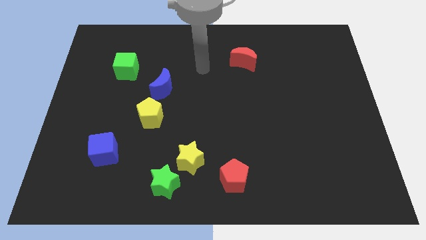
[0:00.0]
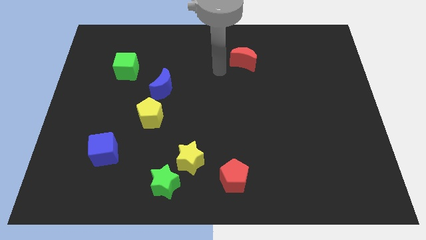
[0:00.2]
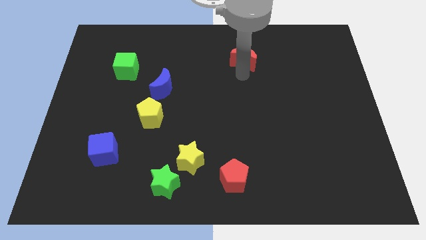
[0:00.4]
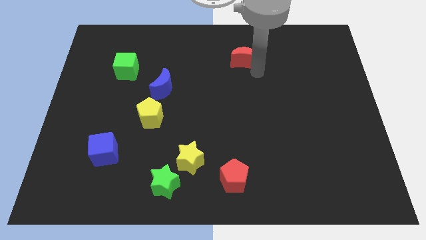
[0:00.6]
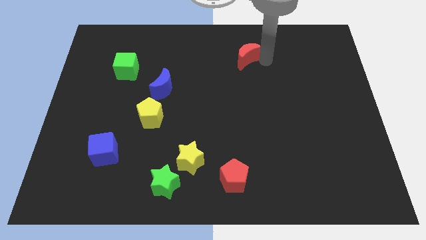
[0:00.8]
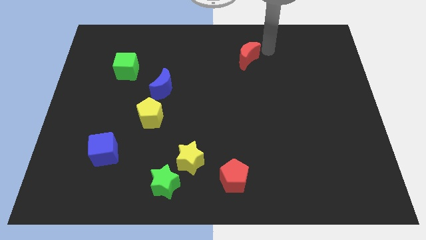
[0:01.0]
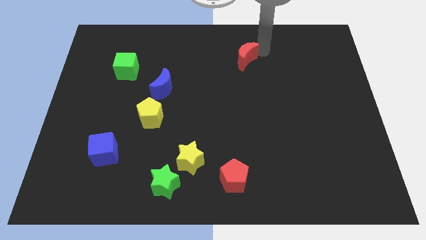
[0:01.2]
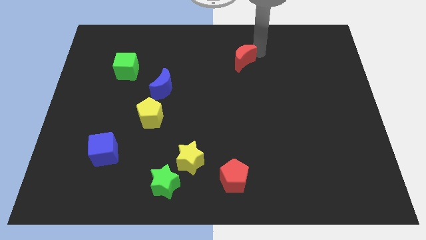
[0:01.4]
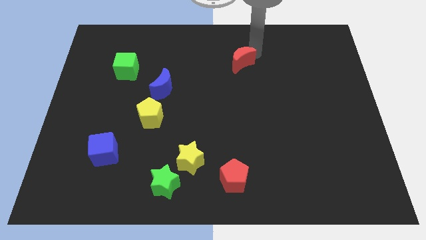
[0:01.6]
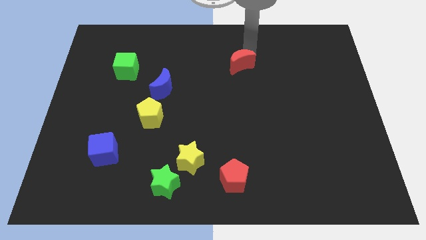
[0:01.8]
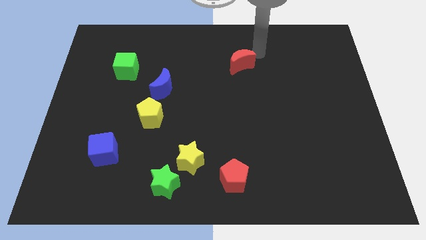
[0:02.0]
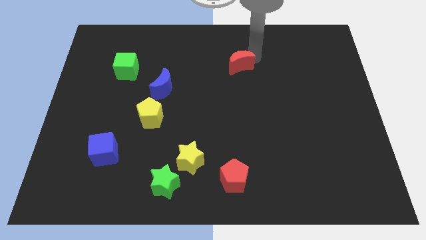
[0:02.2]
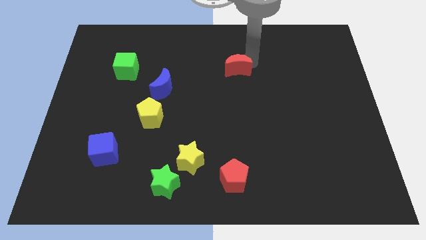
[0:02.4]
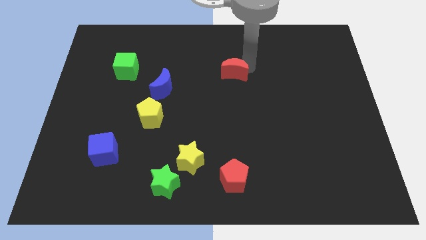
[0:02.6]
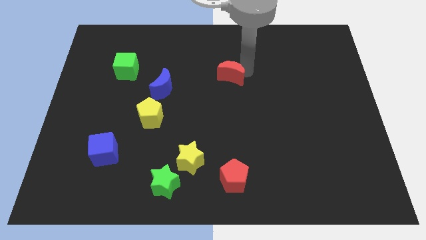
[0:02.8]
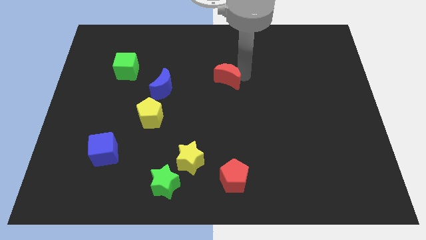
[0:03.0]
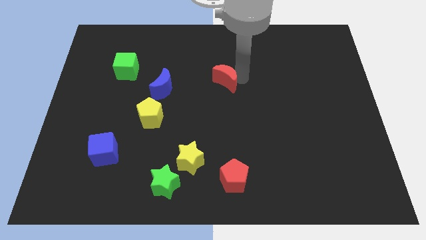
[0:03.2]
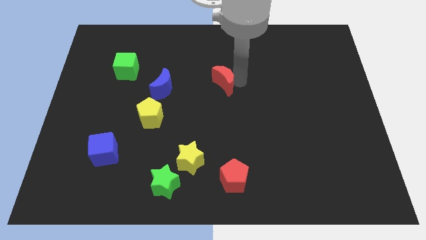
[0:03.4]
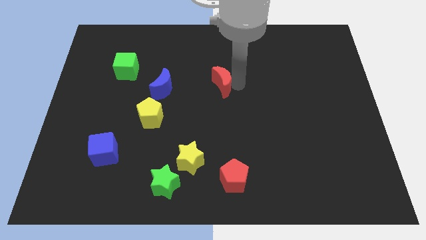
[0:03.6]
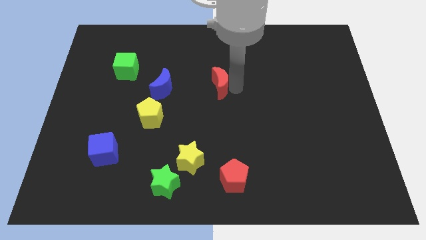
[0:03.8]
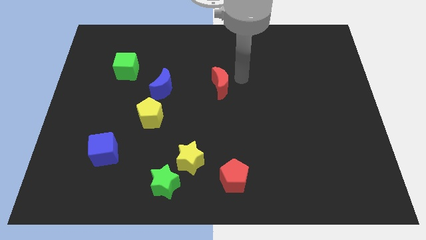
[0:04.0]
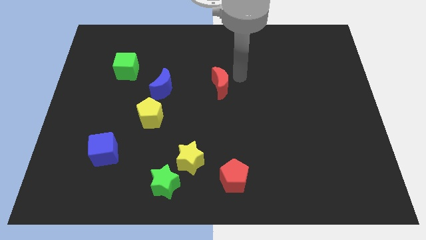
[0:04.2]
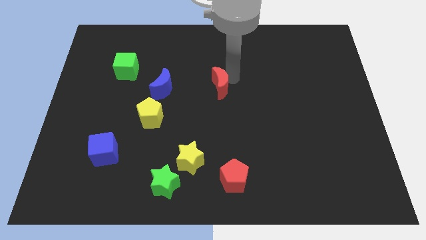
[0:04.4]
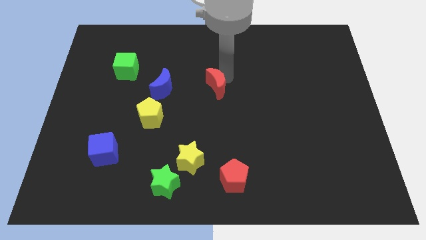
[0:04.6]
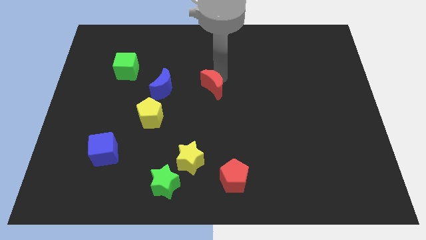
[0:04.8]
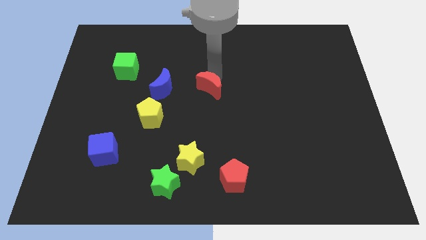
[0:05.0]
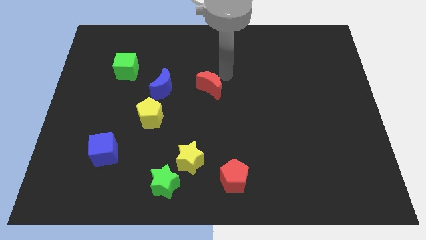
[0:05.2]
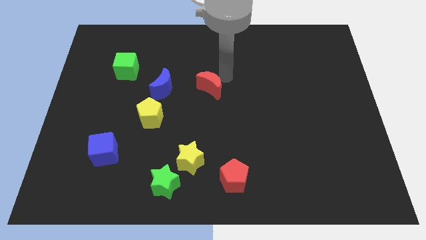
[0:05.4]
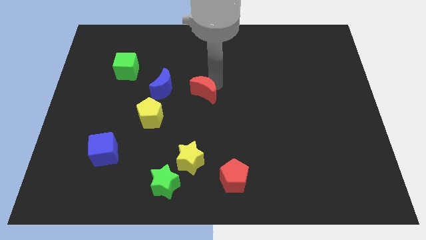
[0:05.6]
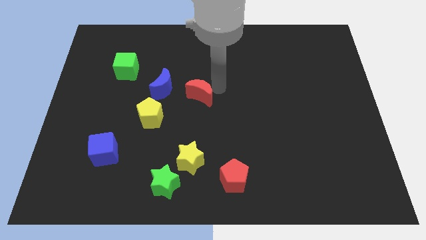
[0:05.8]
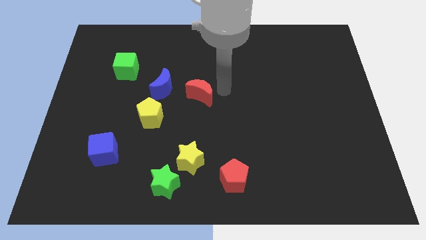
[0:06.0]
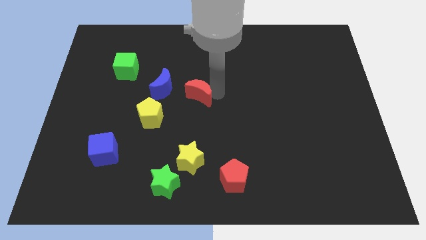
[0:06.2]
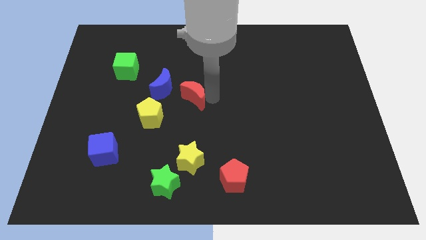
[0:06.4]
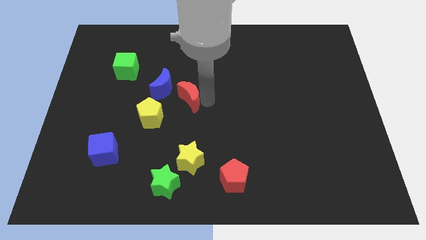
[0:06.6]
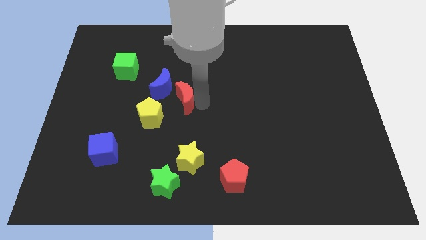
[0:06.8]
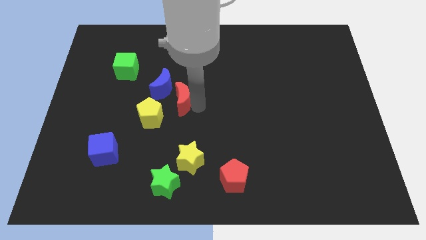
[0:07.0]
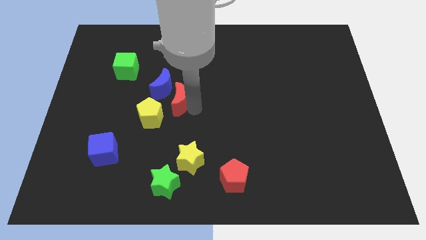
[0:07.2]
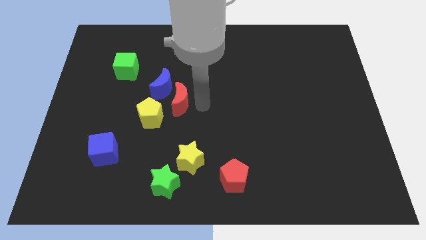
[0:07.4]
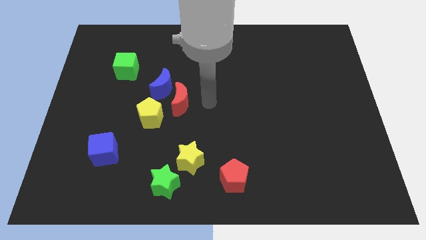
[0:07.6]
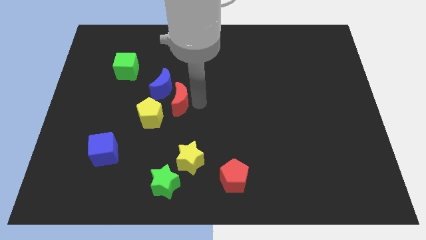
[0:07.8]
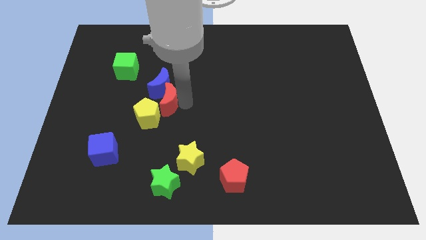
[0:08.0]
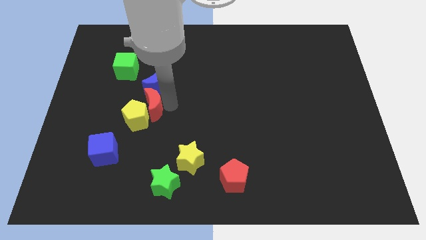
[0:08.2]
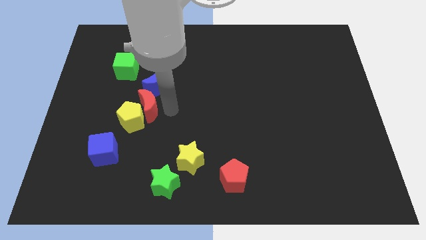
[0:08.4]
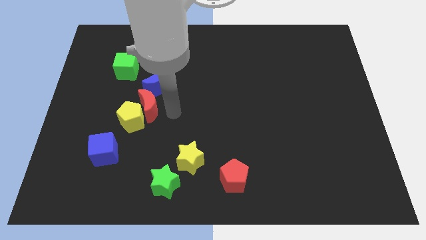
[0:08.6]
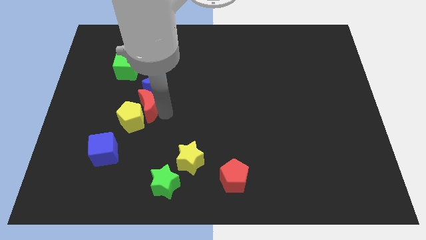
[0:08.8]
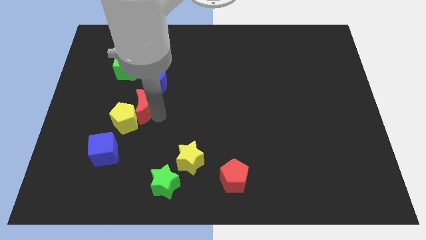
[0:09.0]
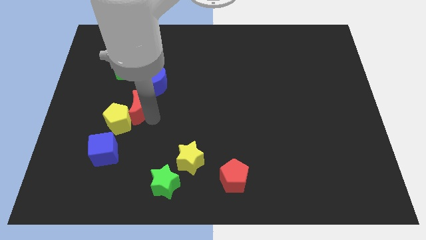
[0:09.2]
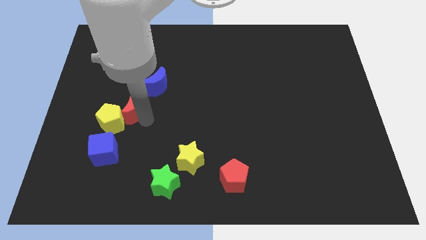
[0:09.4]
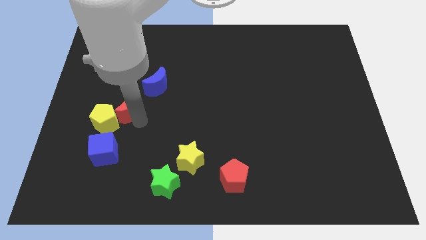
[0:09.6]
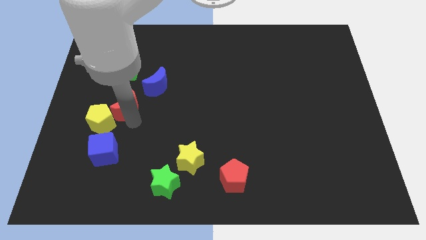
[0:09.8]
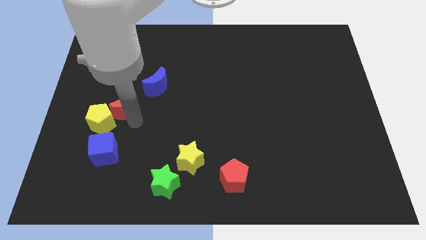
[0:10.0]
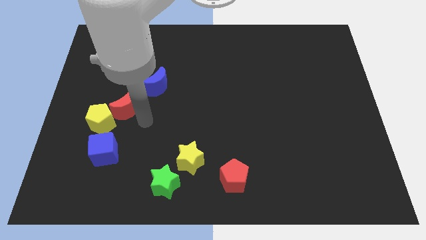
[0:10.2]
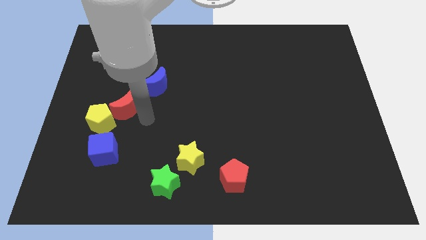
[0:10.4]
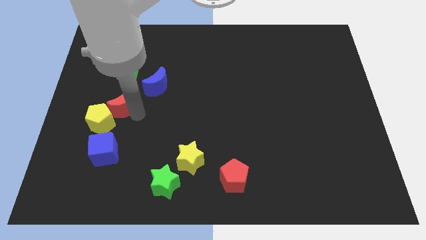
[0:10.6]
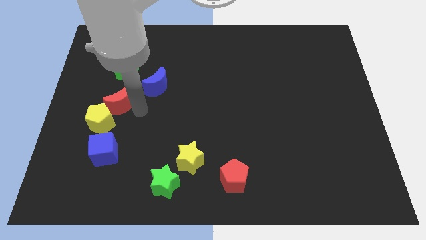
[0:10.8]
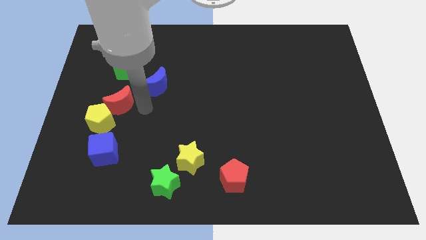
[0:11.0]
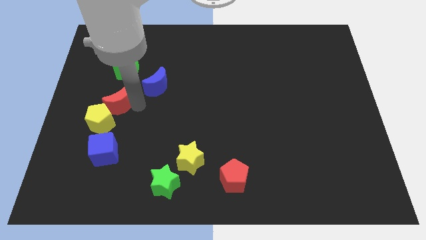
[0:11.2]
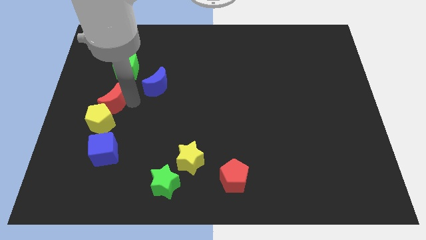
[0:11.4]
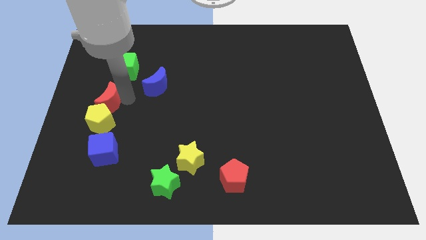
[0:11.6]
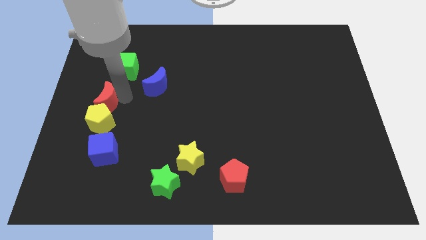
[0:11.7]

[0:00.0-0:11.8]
put the red moon to the center left
